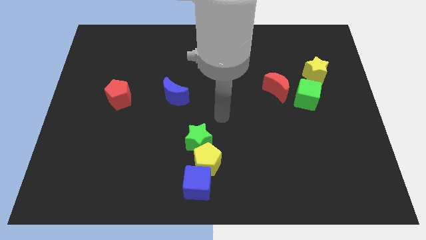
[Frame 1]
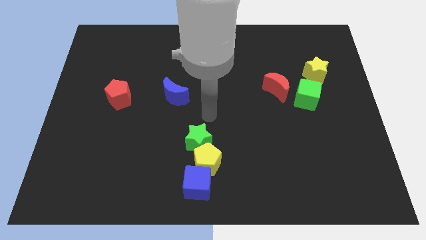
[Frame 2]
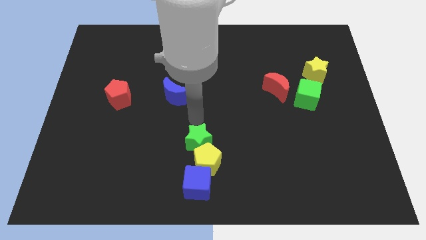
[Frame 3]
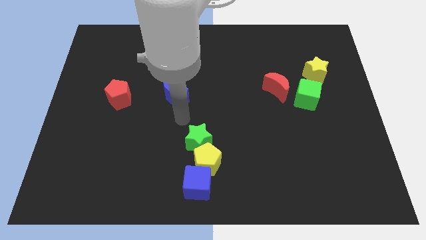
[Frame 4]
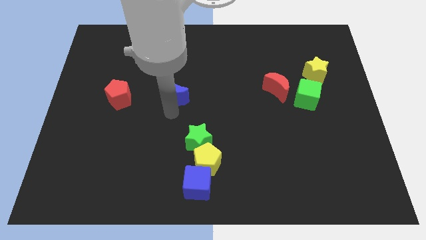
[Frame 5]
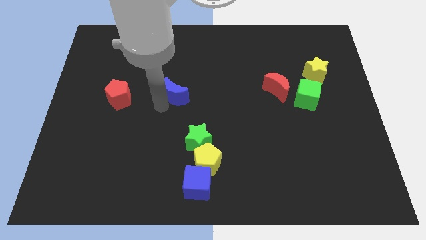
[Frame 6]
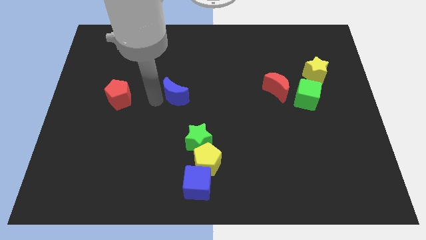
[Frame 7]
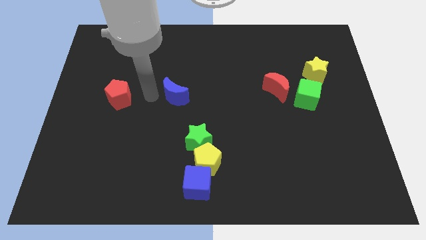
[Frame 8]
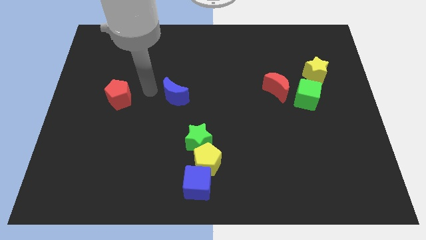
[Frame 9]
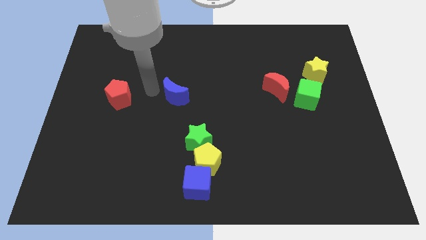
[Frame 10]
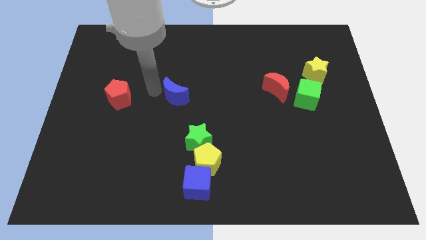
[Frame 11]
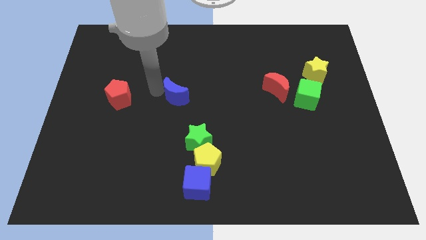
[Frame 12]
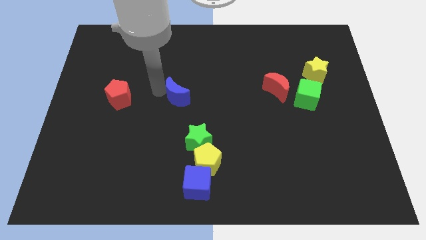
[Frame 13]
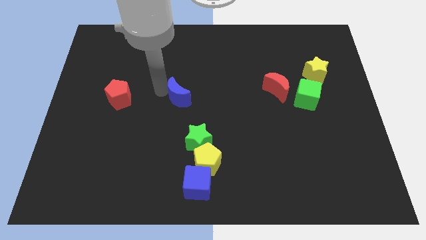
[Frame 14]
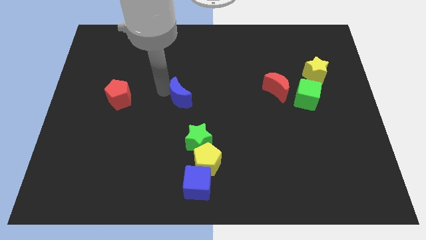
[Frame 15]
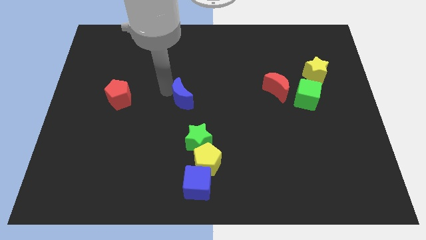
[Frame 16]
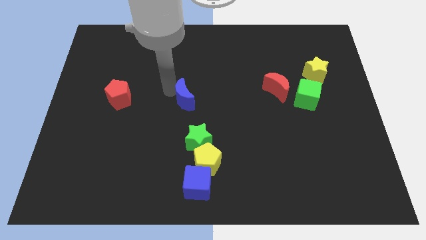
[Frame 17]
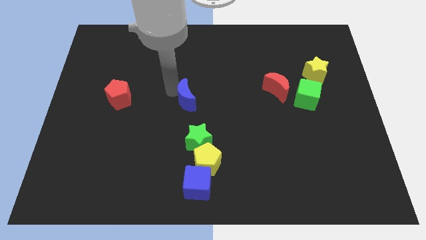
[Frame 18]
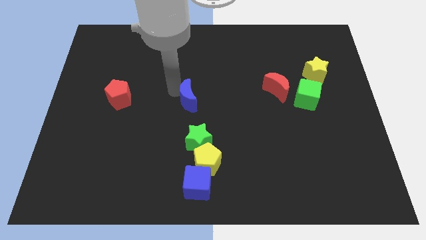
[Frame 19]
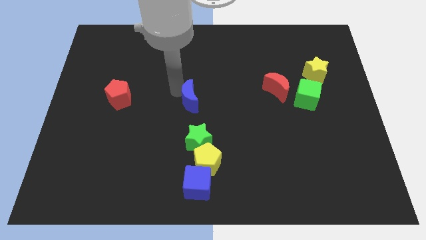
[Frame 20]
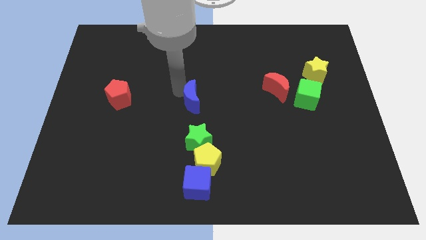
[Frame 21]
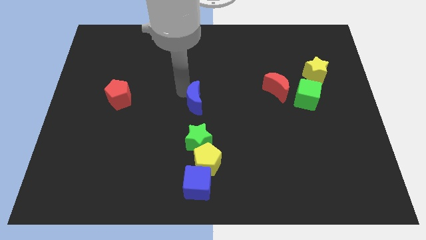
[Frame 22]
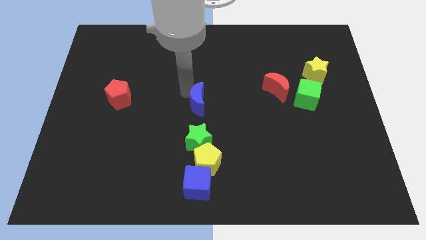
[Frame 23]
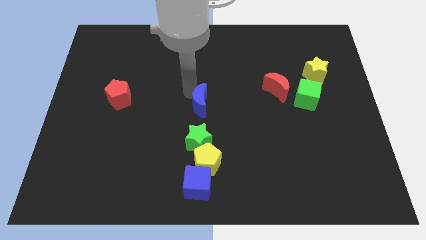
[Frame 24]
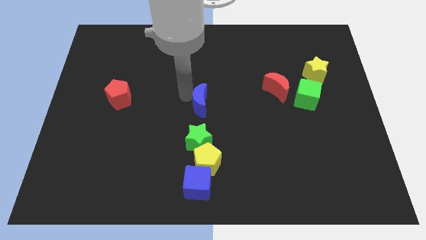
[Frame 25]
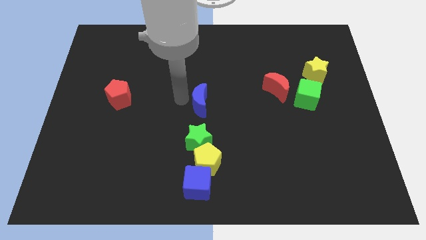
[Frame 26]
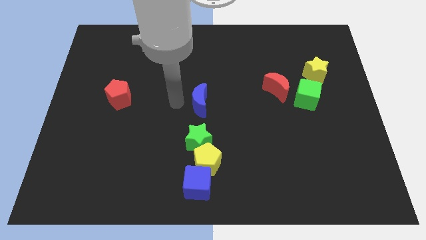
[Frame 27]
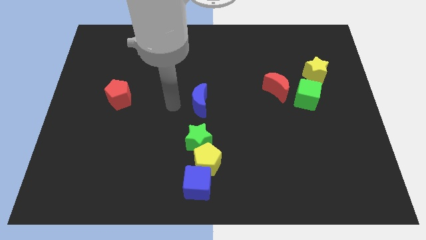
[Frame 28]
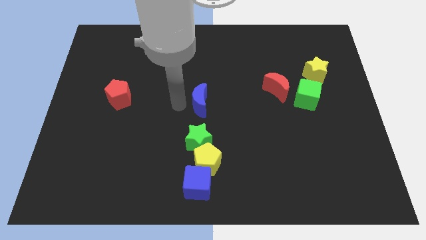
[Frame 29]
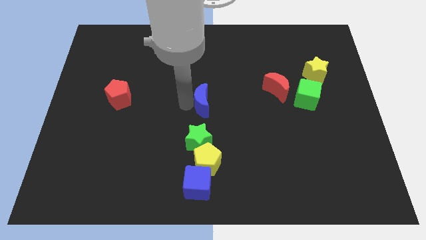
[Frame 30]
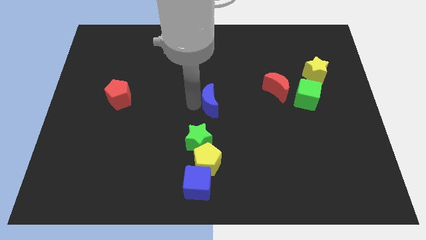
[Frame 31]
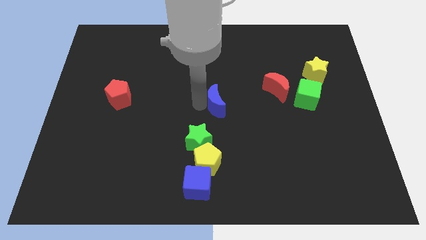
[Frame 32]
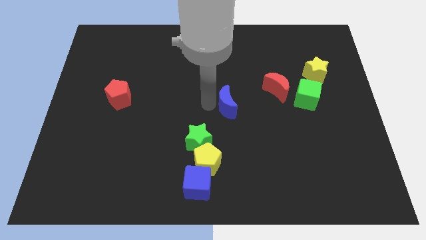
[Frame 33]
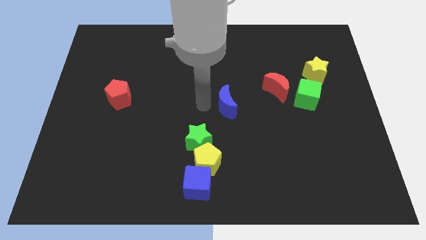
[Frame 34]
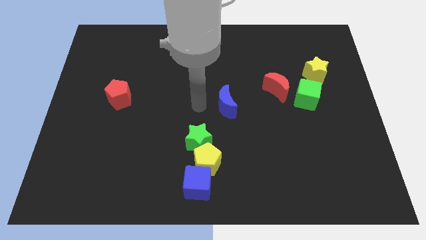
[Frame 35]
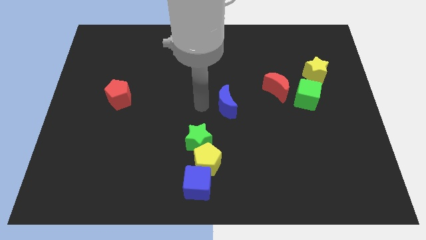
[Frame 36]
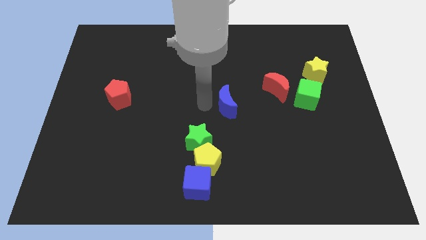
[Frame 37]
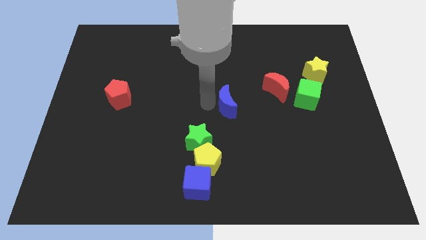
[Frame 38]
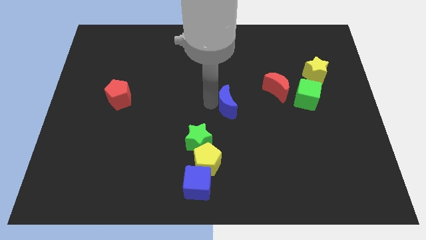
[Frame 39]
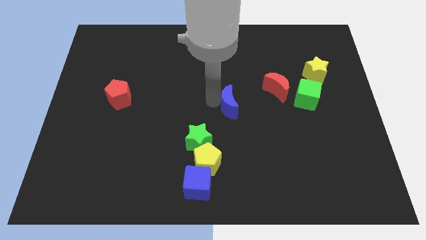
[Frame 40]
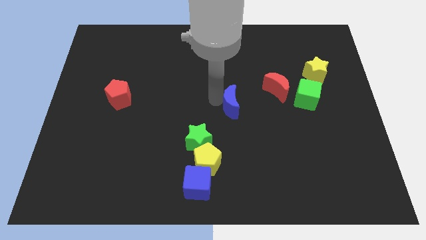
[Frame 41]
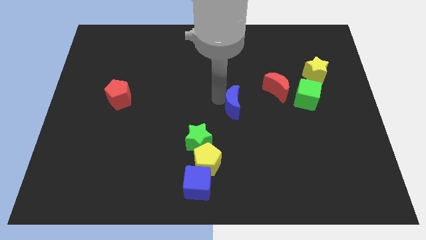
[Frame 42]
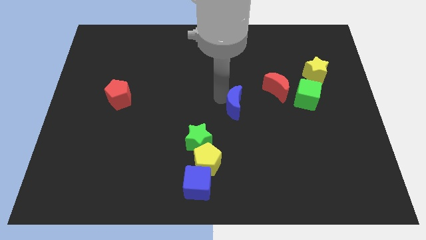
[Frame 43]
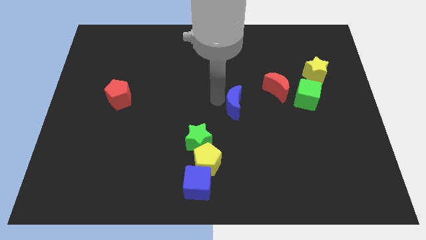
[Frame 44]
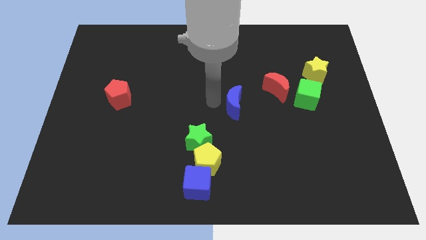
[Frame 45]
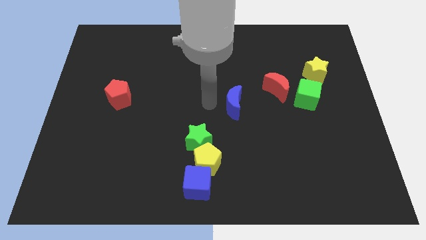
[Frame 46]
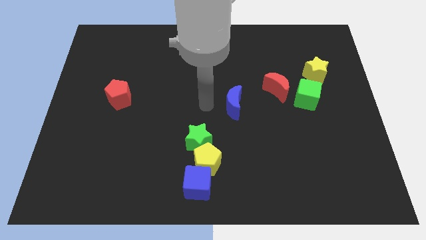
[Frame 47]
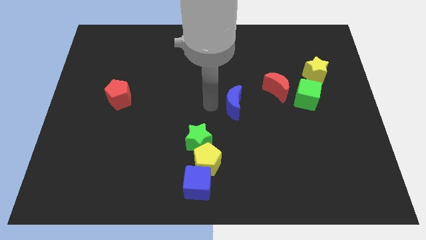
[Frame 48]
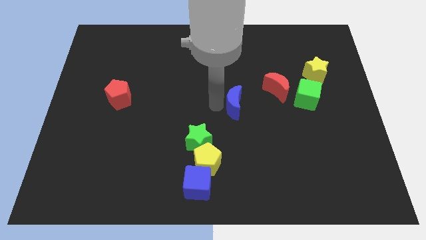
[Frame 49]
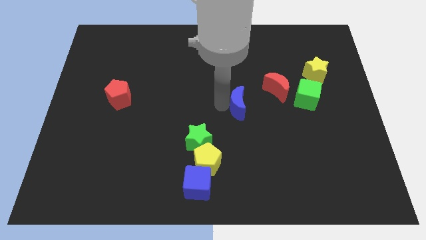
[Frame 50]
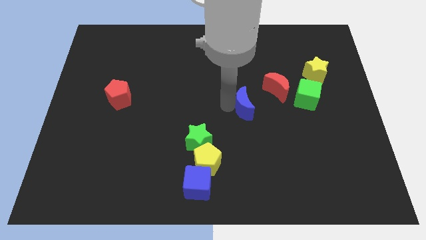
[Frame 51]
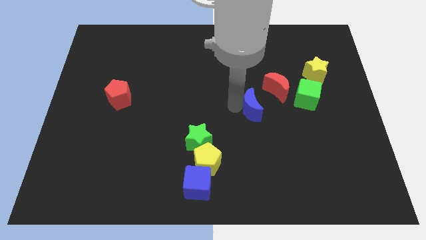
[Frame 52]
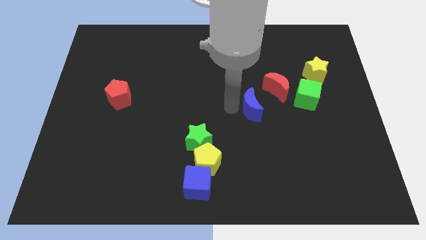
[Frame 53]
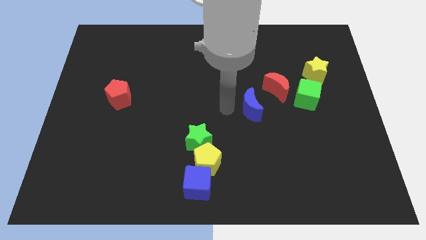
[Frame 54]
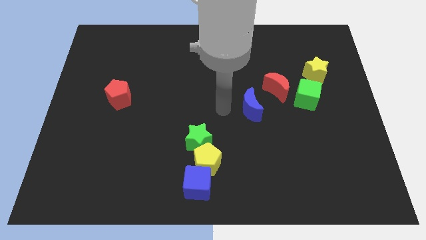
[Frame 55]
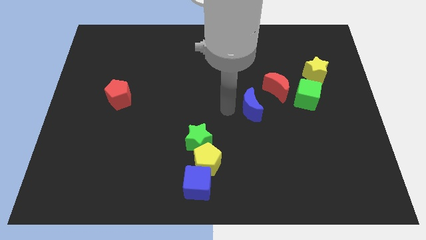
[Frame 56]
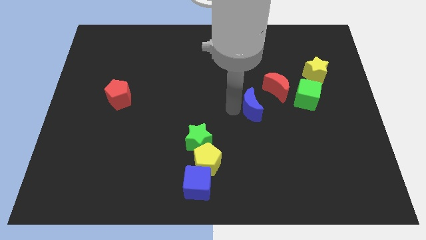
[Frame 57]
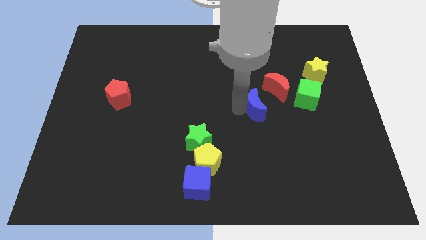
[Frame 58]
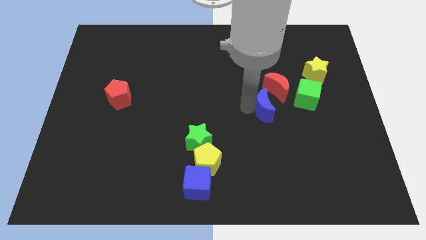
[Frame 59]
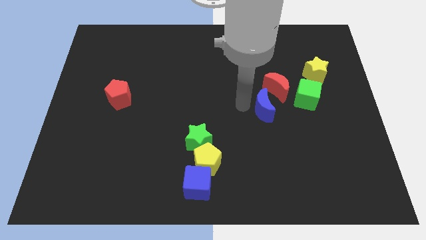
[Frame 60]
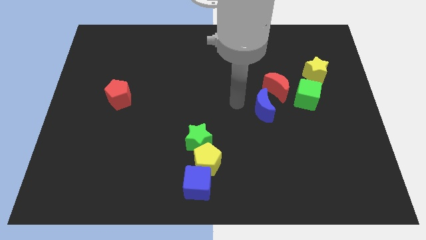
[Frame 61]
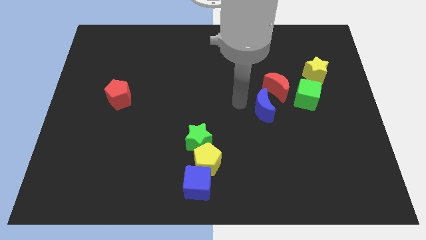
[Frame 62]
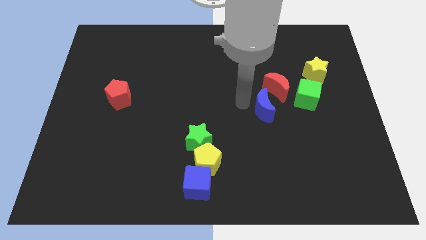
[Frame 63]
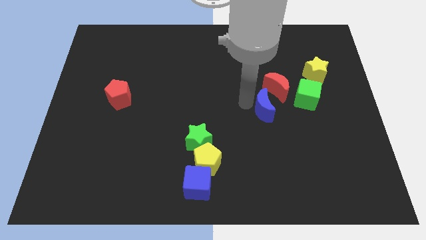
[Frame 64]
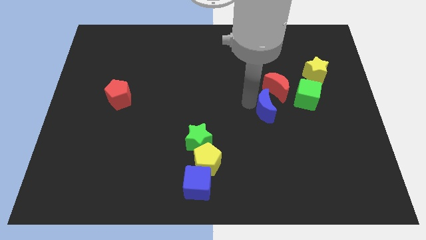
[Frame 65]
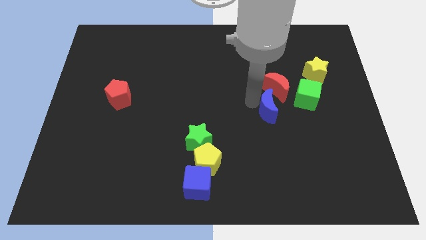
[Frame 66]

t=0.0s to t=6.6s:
slide the blue moon to the bottom left of the green cube

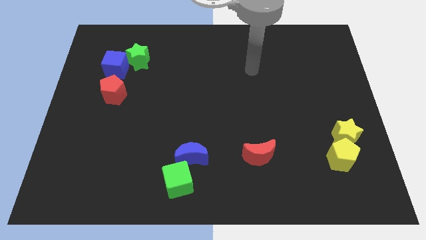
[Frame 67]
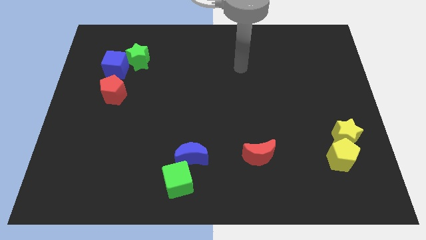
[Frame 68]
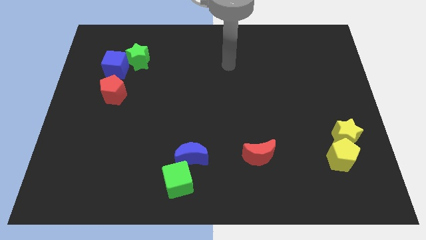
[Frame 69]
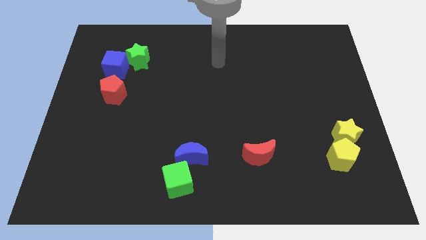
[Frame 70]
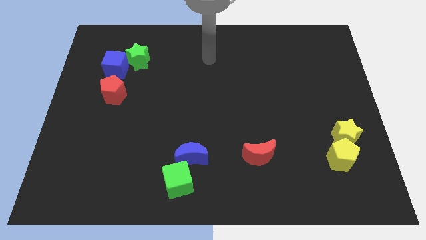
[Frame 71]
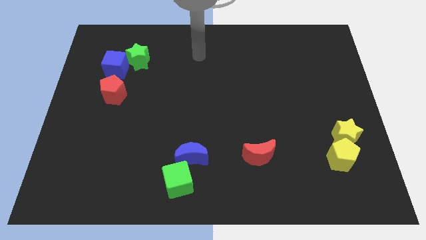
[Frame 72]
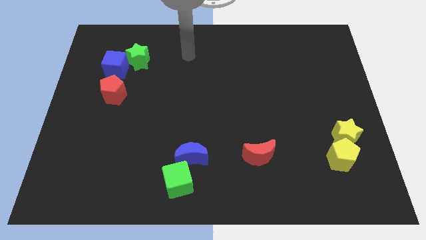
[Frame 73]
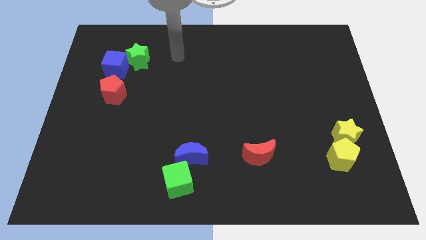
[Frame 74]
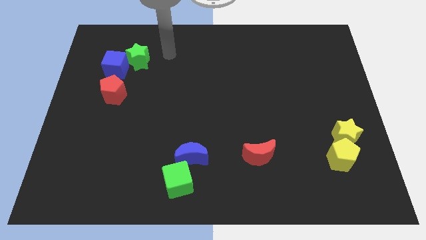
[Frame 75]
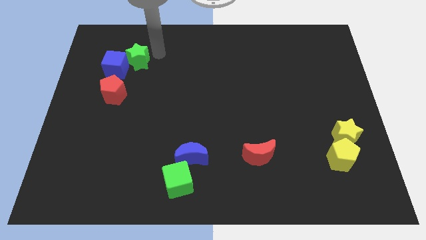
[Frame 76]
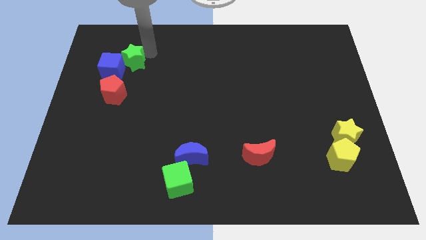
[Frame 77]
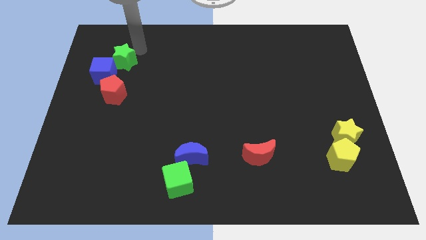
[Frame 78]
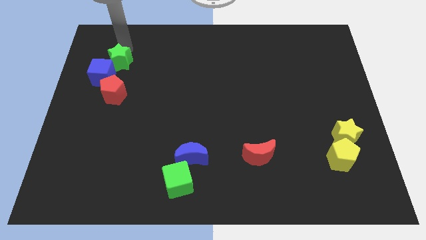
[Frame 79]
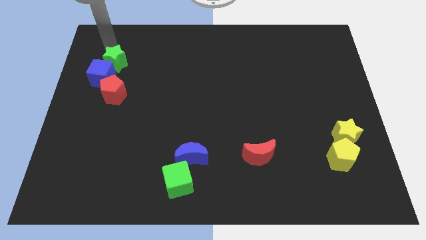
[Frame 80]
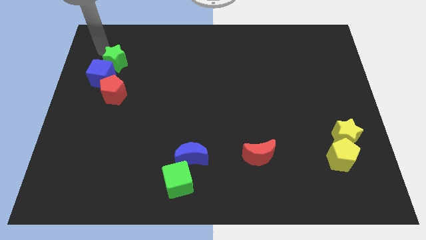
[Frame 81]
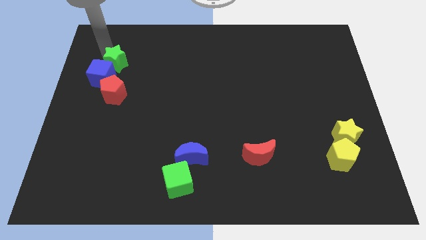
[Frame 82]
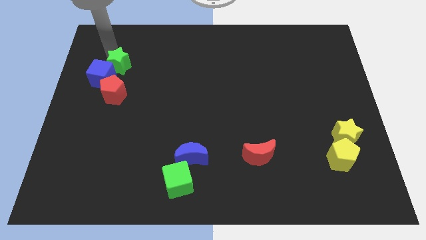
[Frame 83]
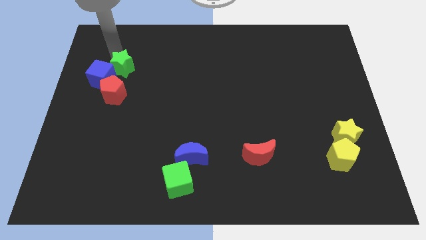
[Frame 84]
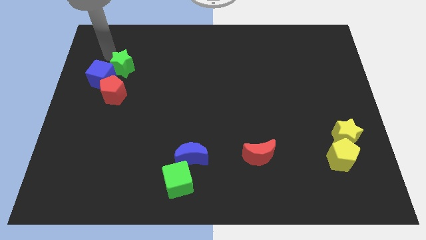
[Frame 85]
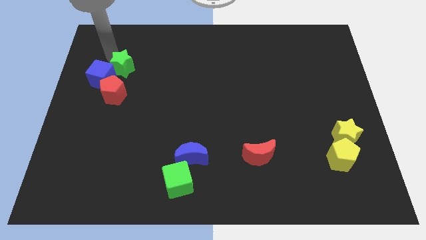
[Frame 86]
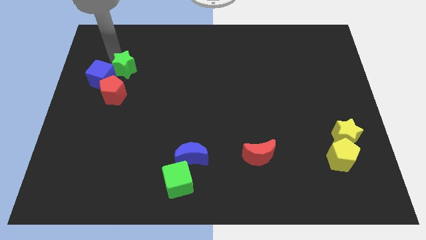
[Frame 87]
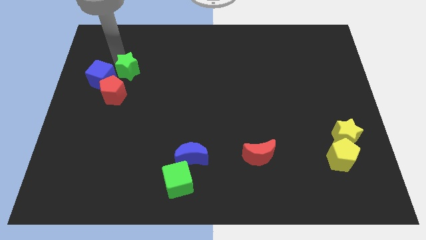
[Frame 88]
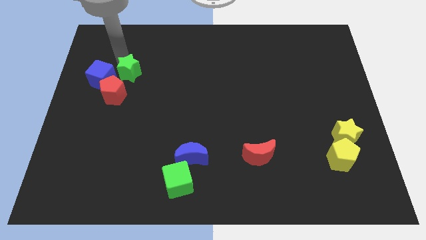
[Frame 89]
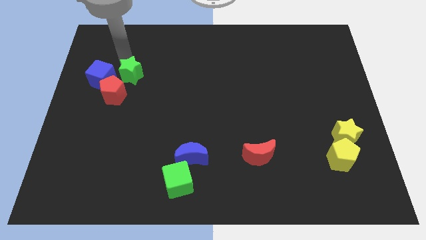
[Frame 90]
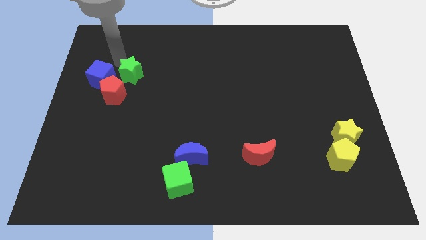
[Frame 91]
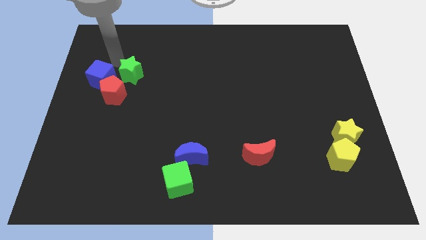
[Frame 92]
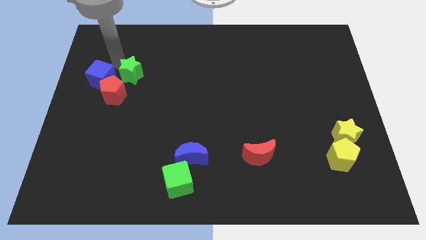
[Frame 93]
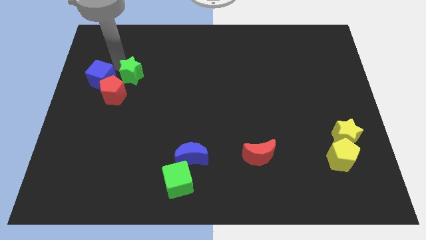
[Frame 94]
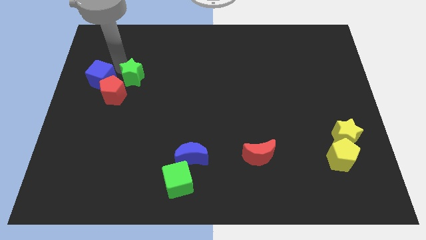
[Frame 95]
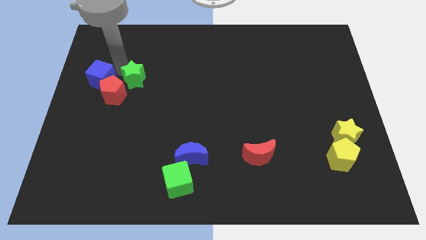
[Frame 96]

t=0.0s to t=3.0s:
move the green star right of the red pentagon
